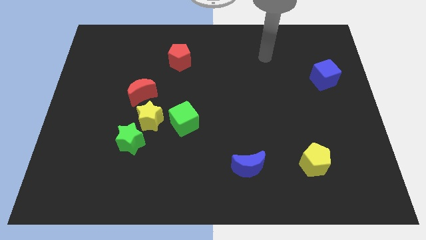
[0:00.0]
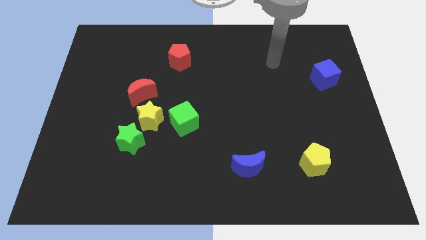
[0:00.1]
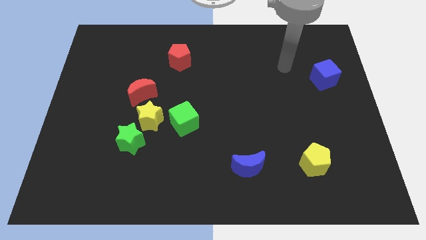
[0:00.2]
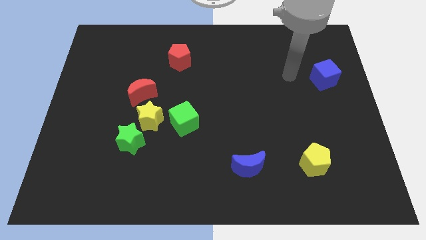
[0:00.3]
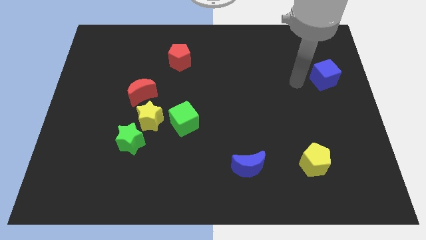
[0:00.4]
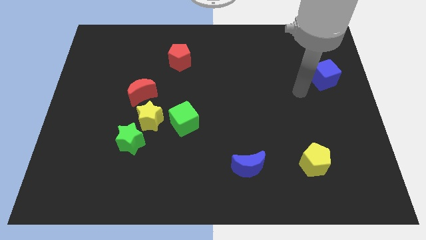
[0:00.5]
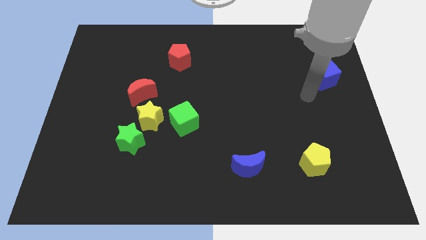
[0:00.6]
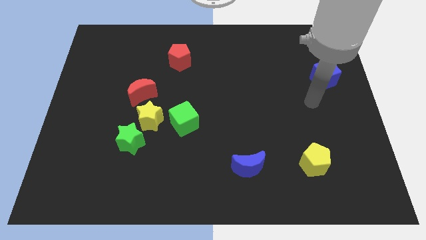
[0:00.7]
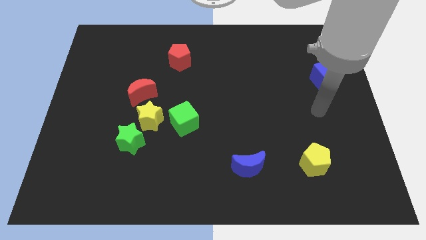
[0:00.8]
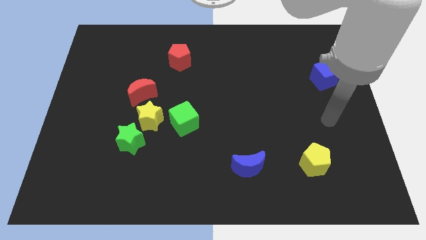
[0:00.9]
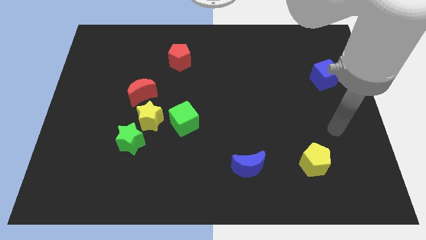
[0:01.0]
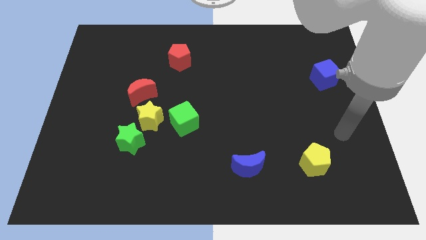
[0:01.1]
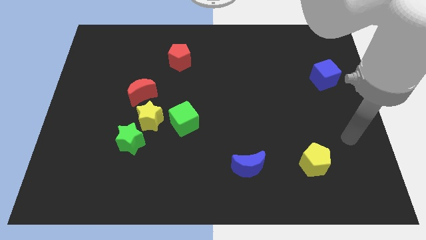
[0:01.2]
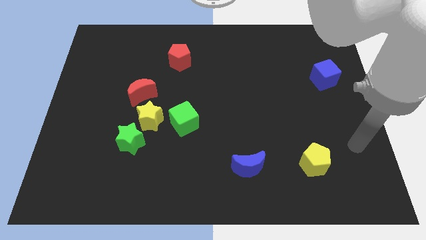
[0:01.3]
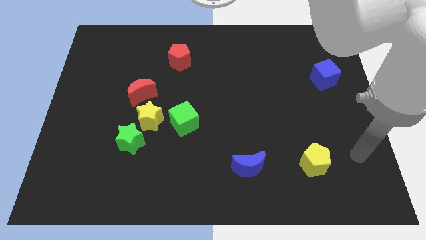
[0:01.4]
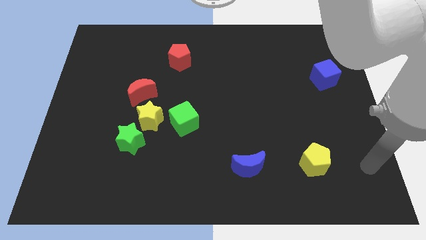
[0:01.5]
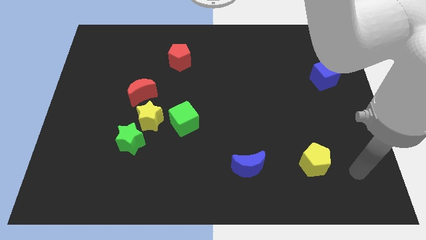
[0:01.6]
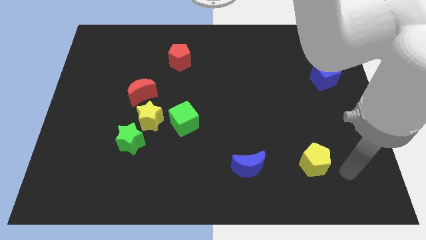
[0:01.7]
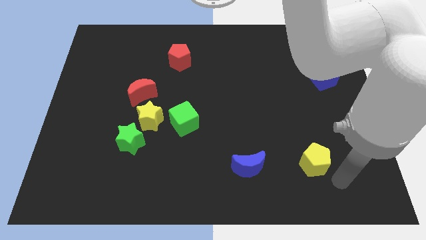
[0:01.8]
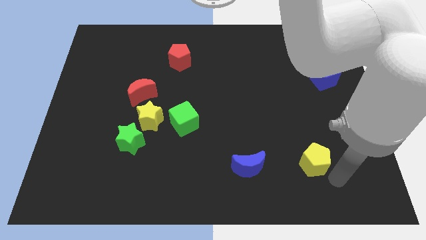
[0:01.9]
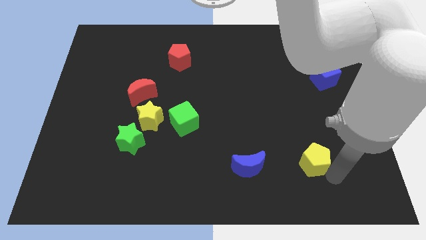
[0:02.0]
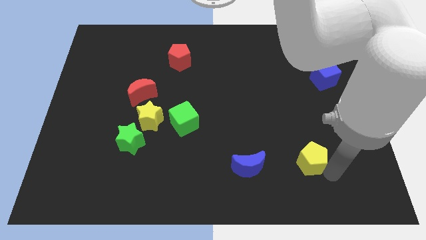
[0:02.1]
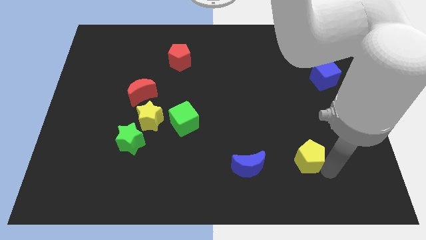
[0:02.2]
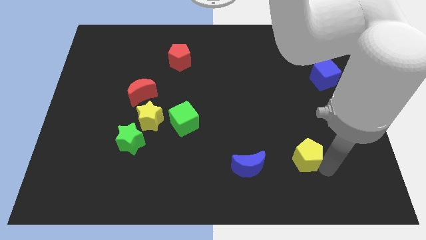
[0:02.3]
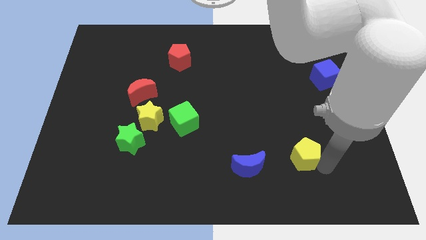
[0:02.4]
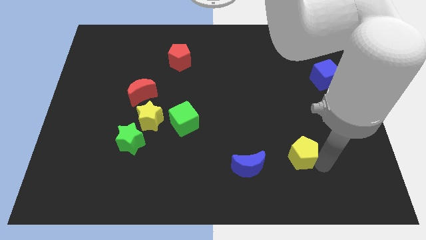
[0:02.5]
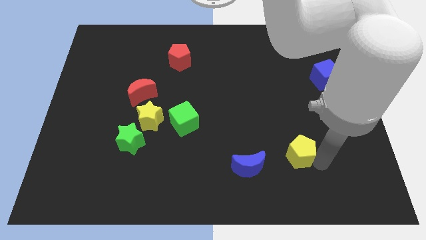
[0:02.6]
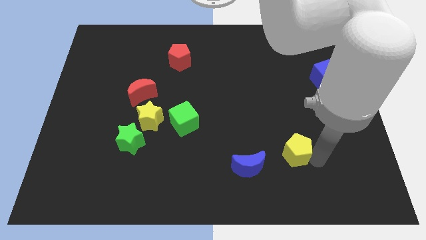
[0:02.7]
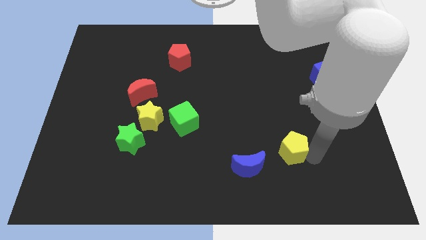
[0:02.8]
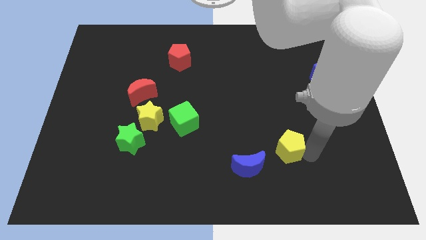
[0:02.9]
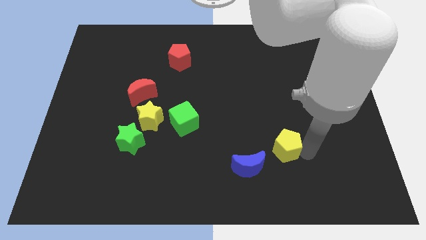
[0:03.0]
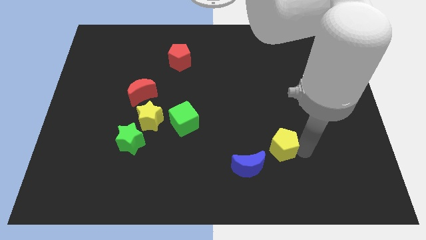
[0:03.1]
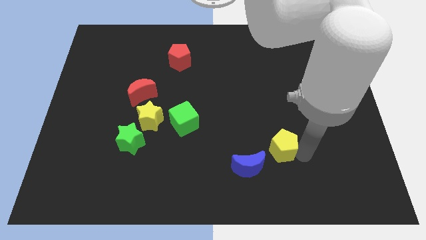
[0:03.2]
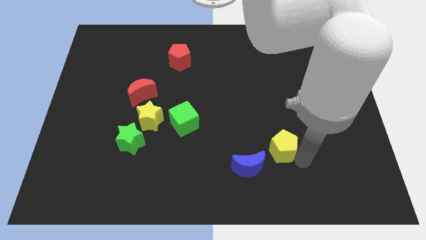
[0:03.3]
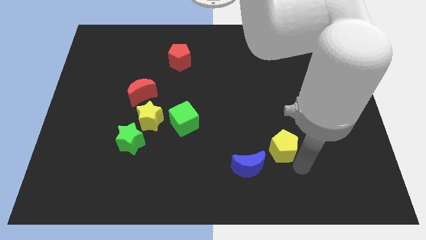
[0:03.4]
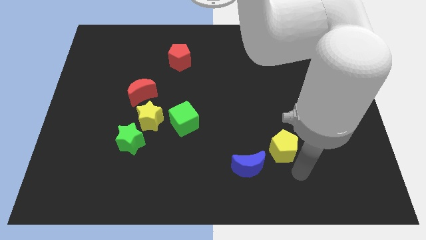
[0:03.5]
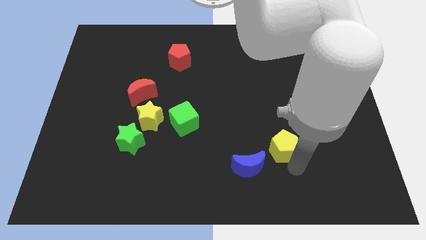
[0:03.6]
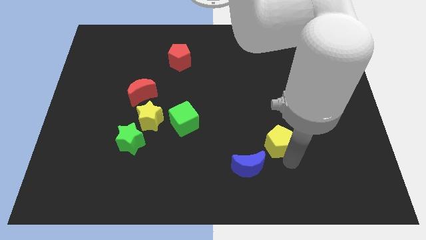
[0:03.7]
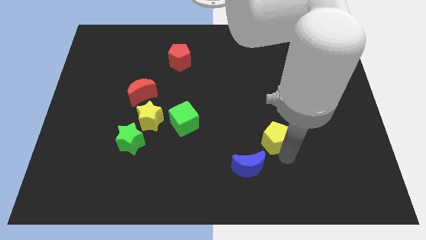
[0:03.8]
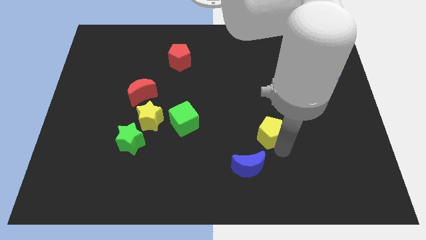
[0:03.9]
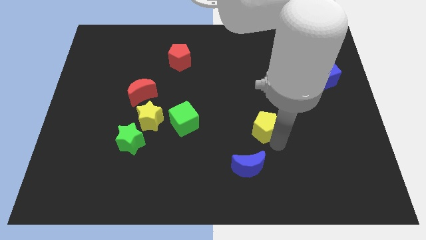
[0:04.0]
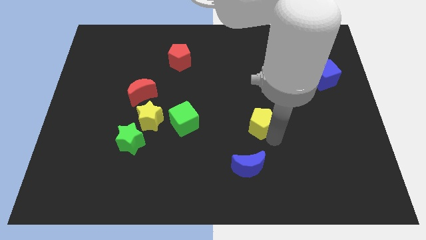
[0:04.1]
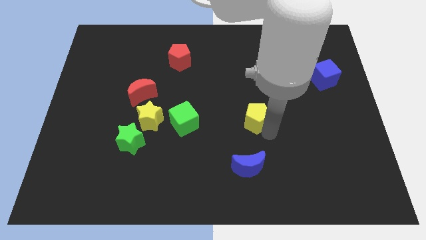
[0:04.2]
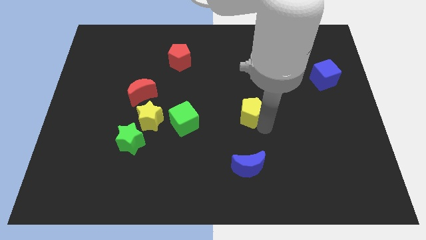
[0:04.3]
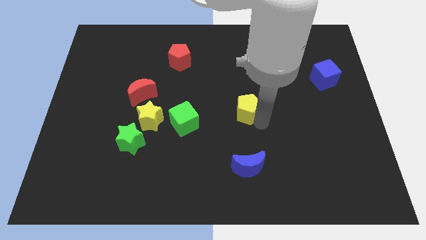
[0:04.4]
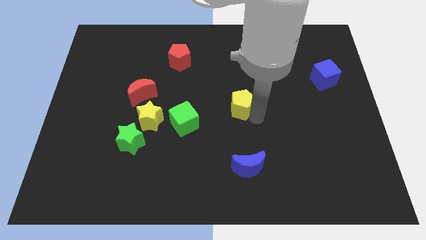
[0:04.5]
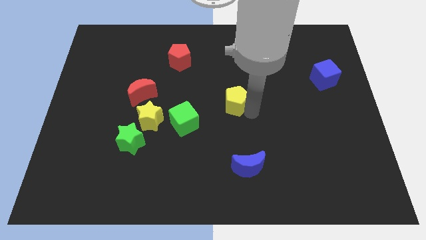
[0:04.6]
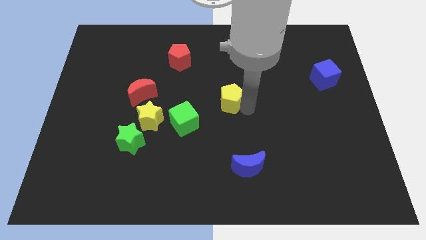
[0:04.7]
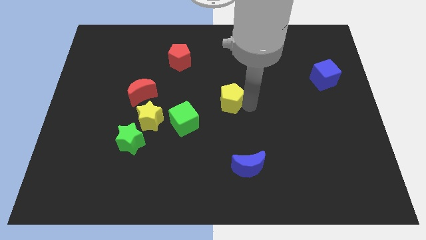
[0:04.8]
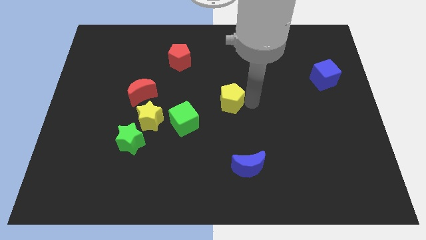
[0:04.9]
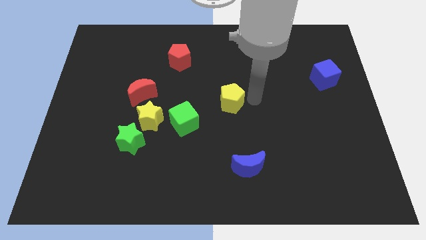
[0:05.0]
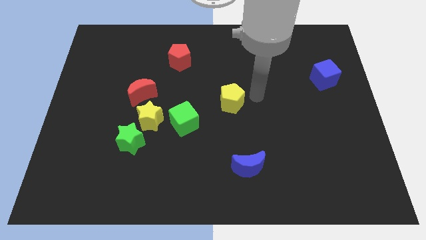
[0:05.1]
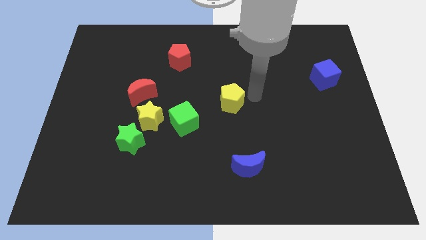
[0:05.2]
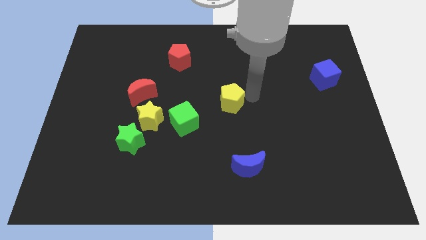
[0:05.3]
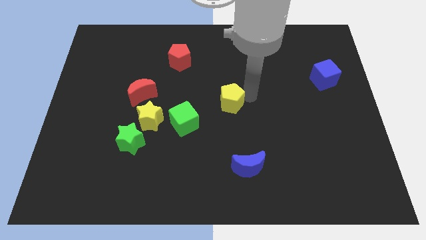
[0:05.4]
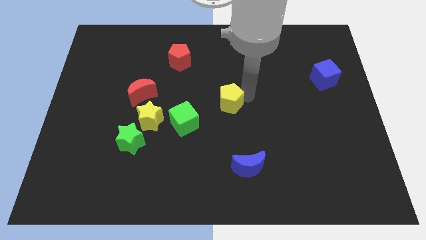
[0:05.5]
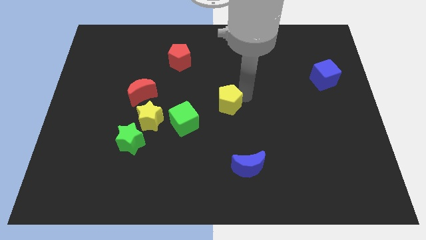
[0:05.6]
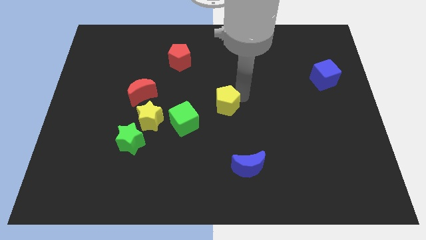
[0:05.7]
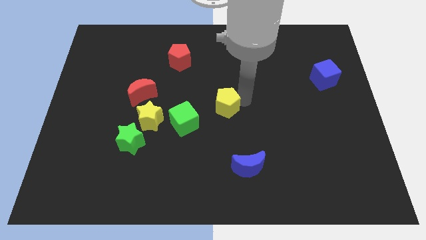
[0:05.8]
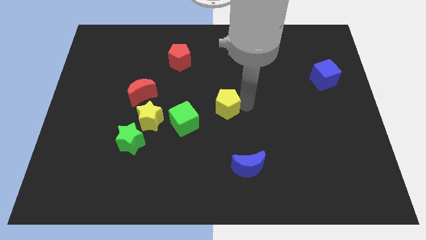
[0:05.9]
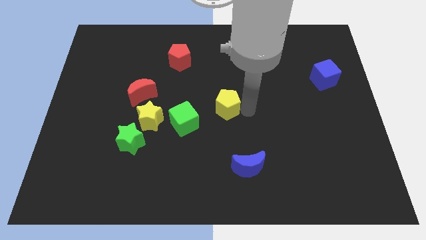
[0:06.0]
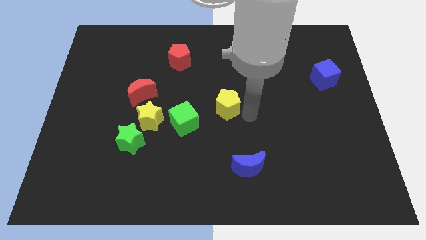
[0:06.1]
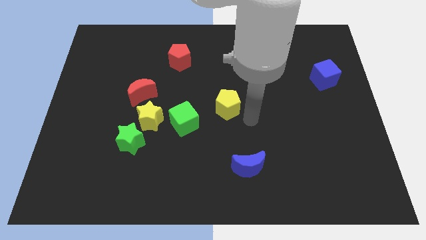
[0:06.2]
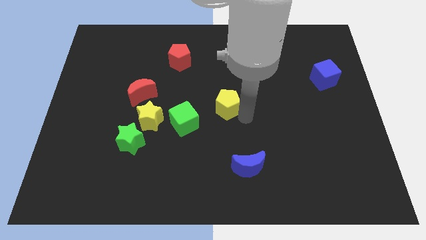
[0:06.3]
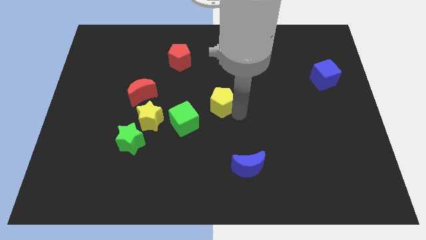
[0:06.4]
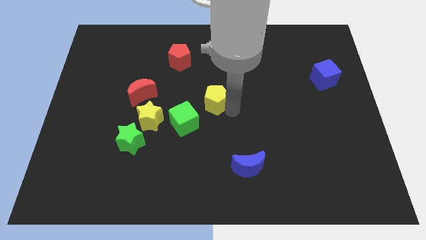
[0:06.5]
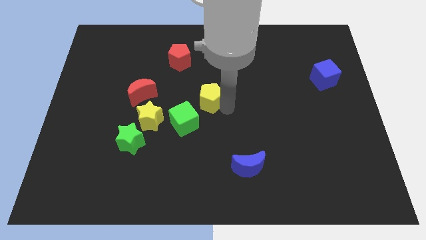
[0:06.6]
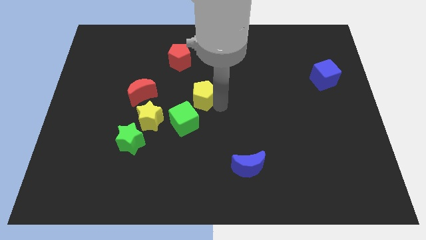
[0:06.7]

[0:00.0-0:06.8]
slide the yellow pentagon to the top side of the green cube
